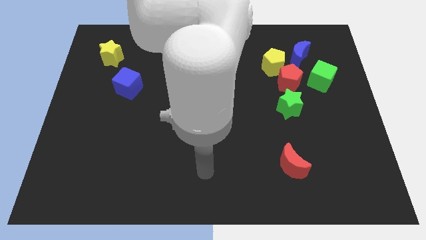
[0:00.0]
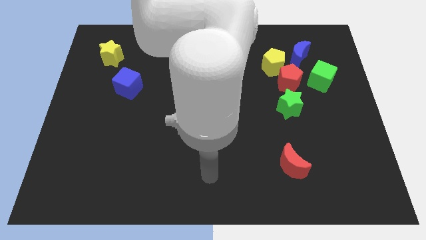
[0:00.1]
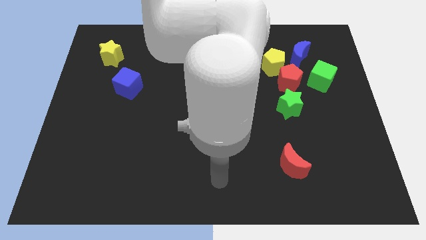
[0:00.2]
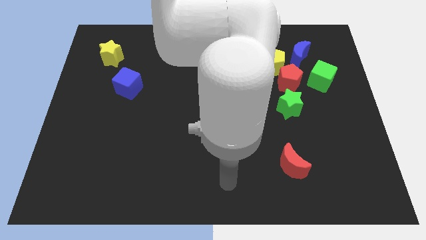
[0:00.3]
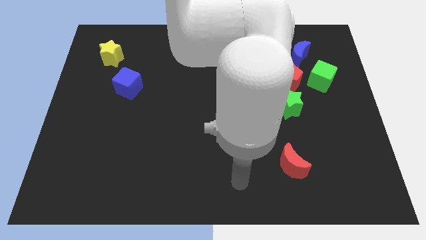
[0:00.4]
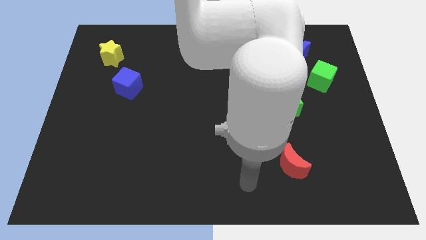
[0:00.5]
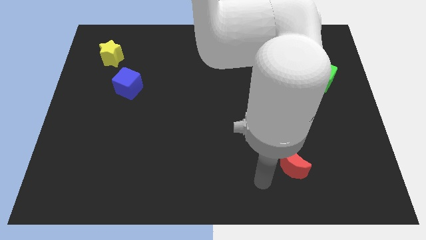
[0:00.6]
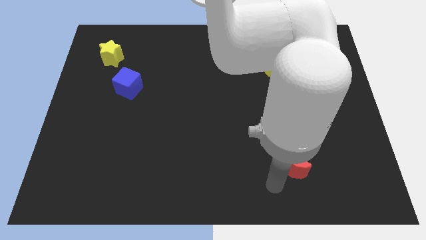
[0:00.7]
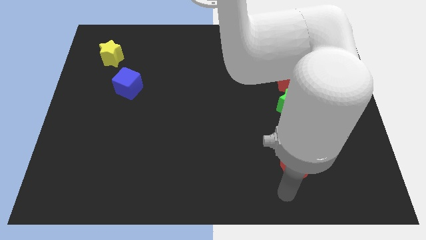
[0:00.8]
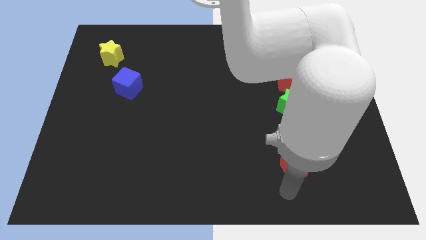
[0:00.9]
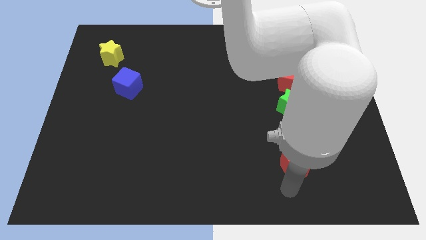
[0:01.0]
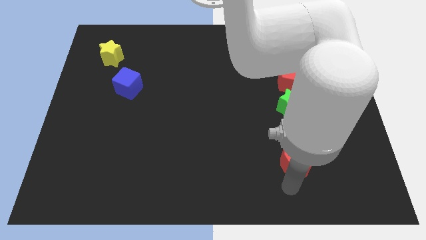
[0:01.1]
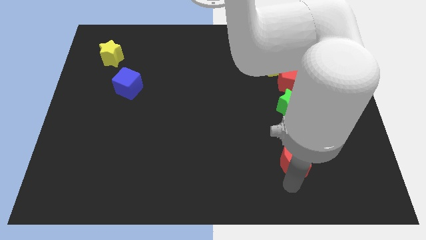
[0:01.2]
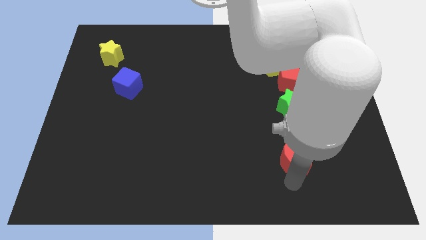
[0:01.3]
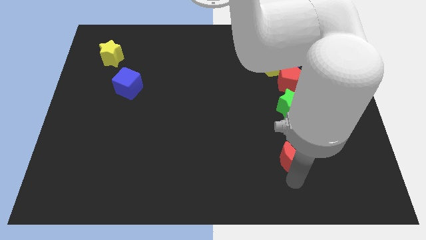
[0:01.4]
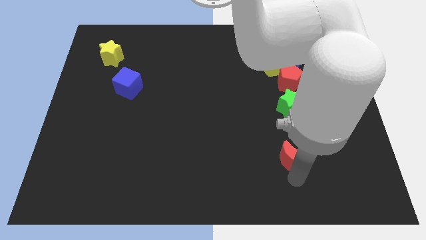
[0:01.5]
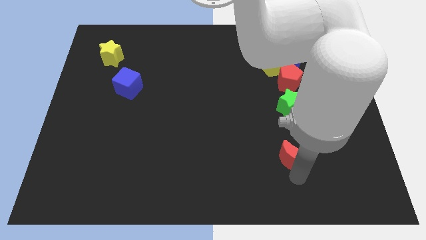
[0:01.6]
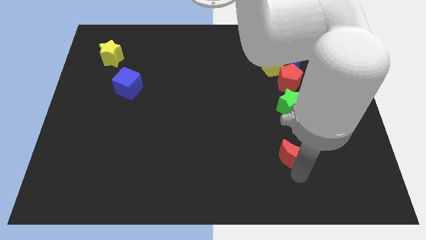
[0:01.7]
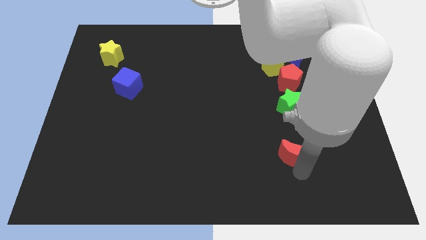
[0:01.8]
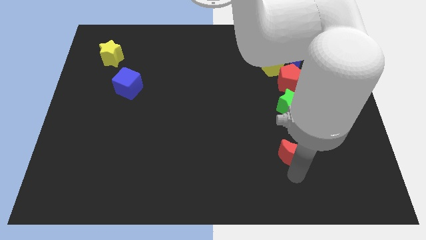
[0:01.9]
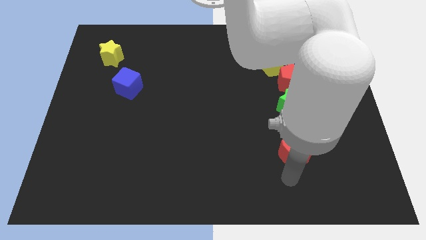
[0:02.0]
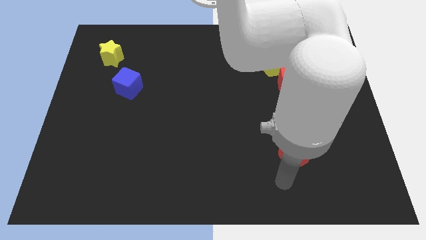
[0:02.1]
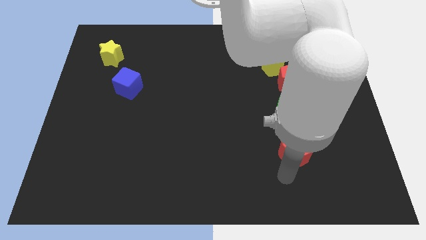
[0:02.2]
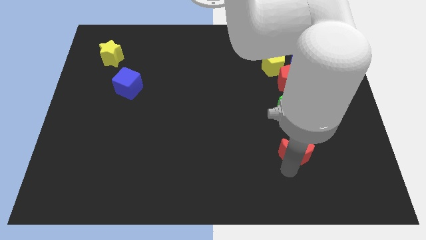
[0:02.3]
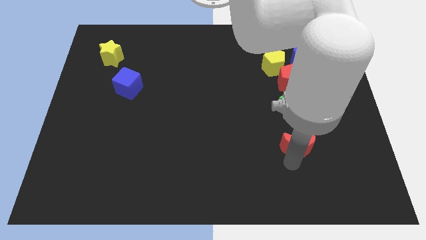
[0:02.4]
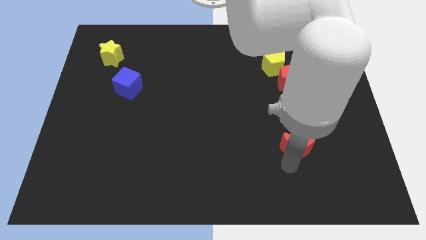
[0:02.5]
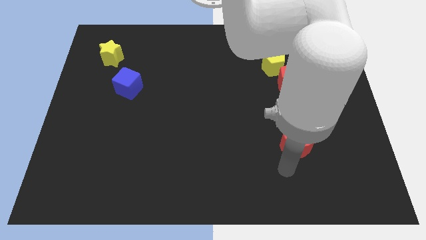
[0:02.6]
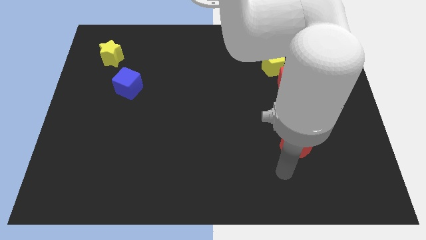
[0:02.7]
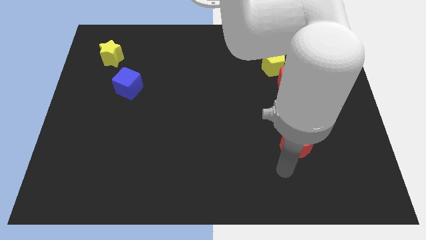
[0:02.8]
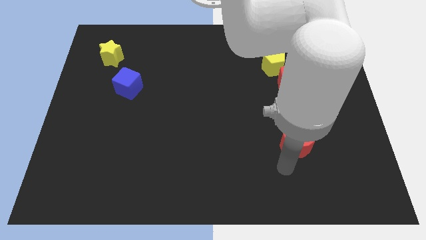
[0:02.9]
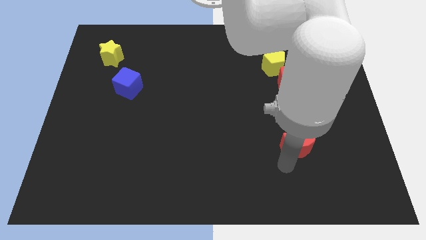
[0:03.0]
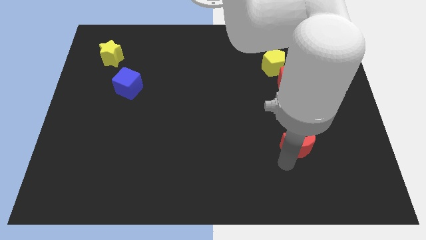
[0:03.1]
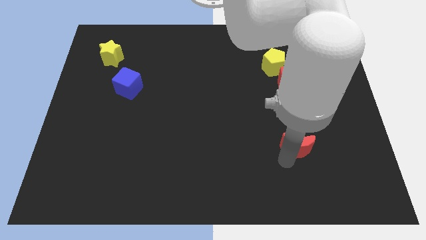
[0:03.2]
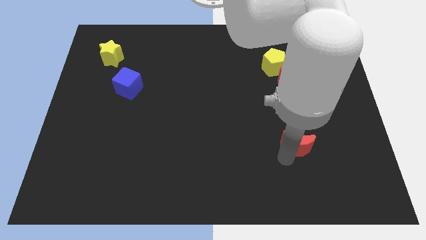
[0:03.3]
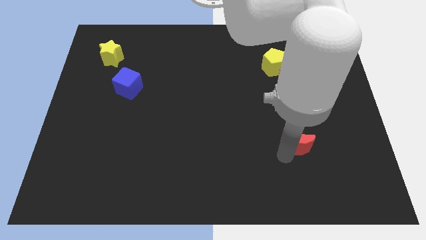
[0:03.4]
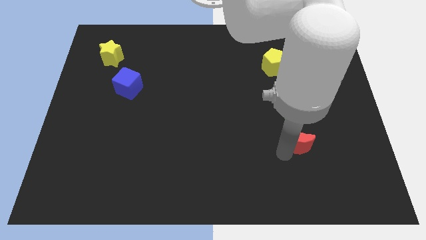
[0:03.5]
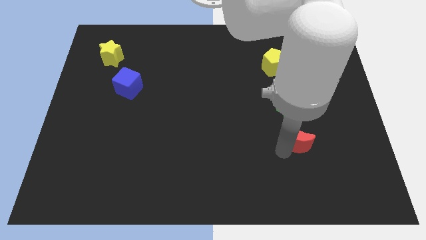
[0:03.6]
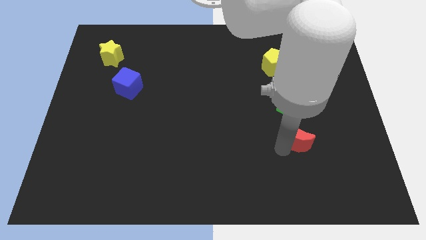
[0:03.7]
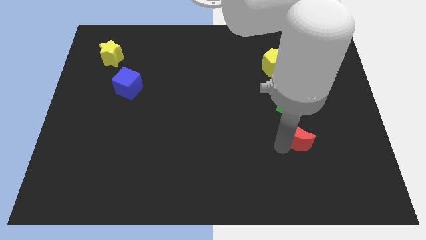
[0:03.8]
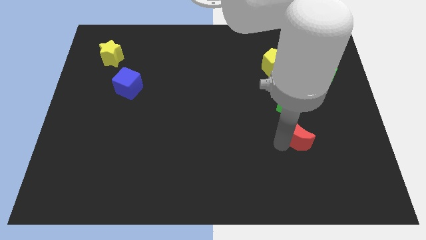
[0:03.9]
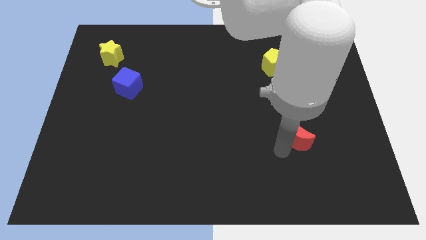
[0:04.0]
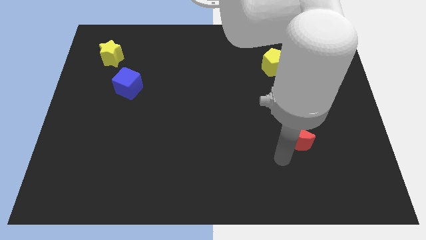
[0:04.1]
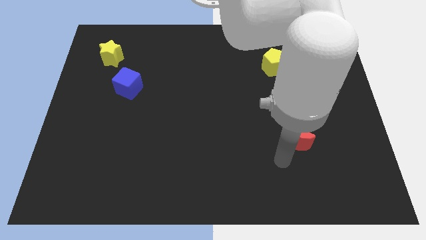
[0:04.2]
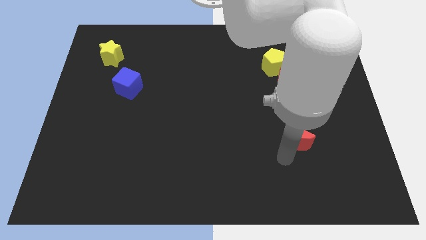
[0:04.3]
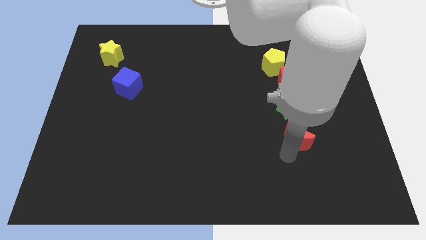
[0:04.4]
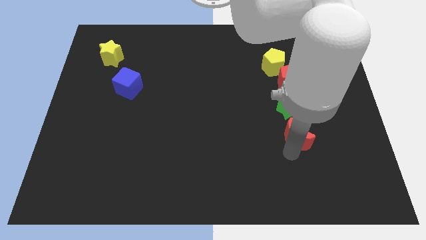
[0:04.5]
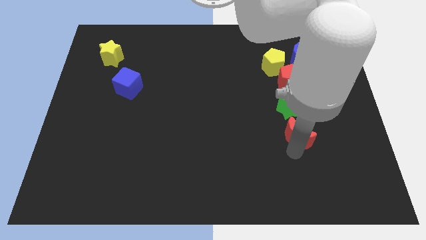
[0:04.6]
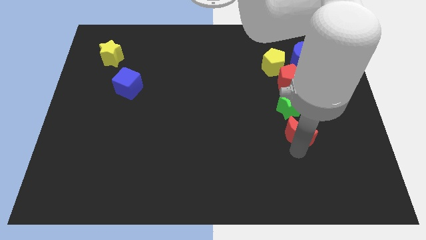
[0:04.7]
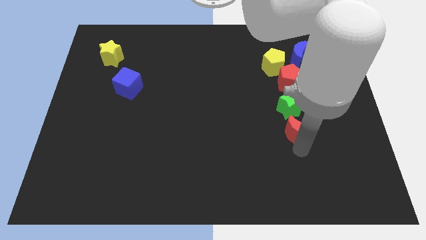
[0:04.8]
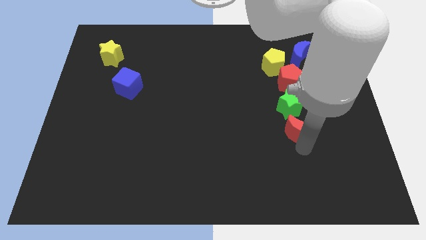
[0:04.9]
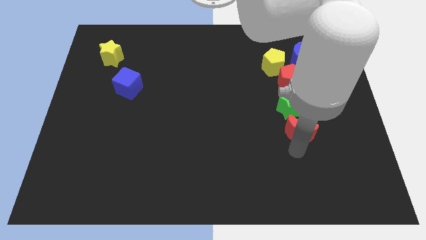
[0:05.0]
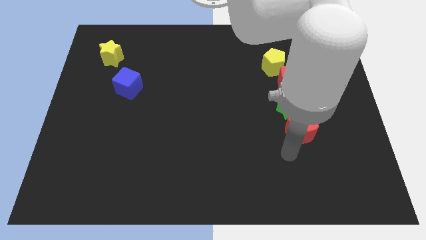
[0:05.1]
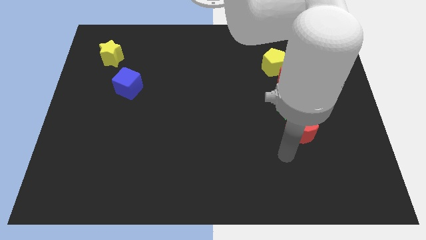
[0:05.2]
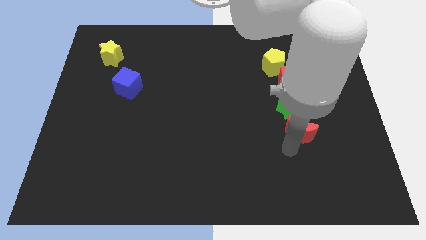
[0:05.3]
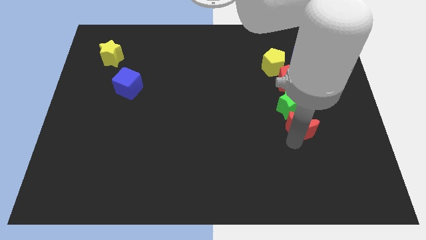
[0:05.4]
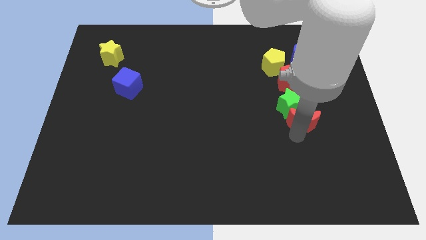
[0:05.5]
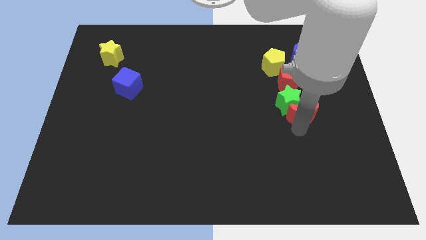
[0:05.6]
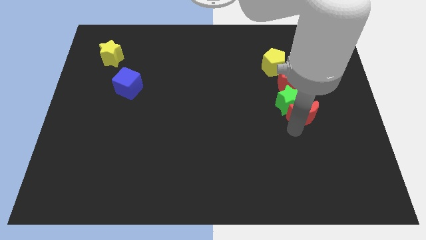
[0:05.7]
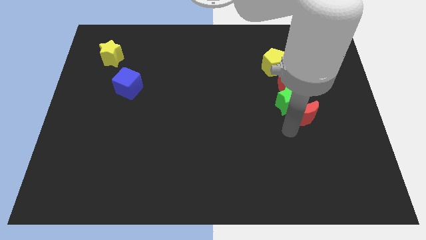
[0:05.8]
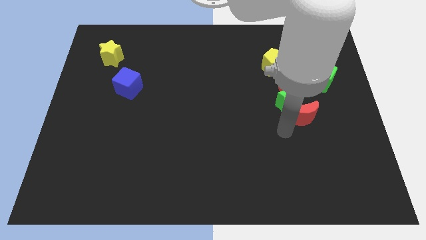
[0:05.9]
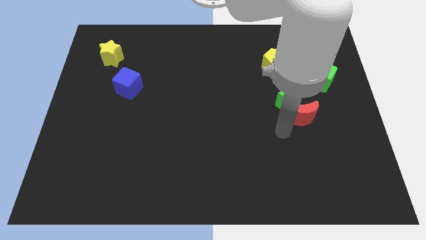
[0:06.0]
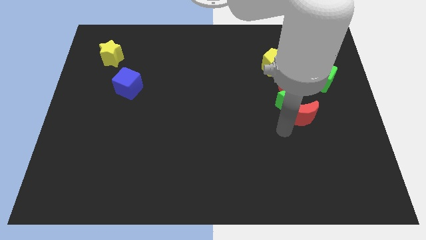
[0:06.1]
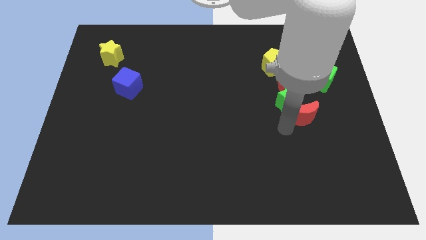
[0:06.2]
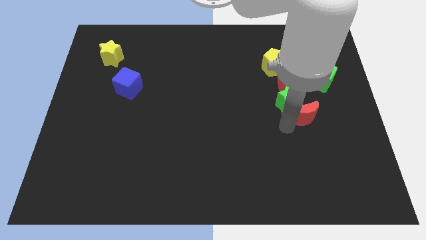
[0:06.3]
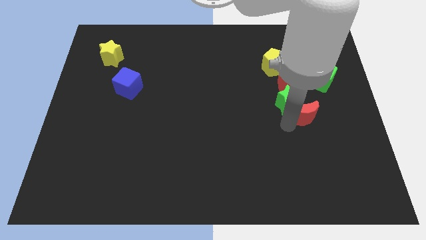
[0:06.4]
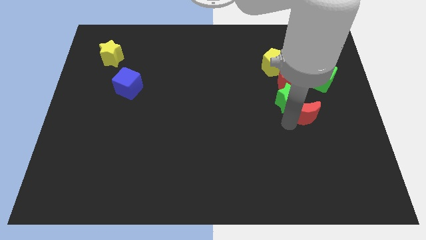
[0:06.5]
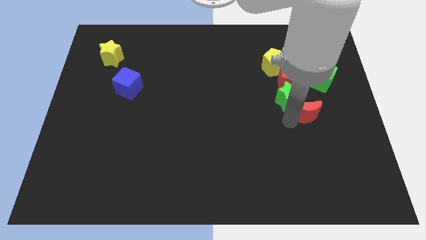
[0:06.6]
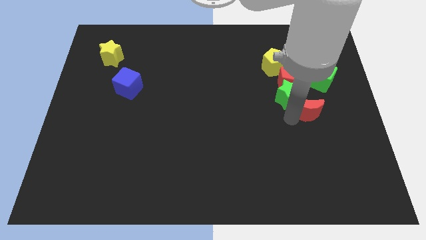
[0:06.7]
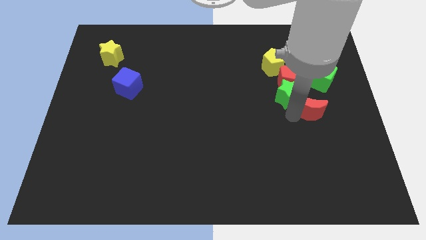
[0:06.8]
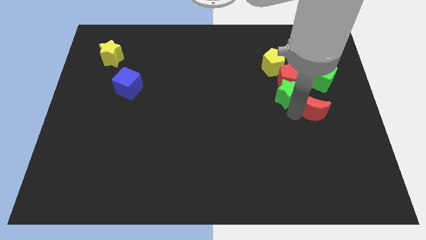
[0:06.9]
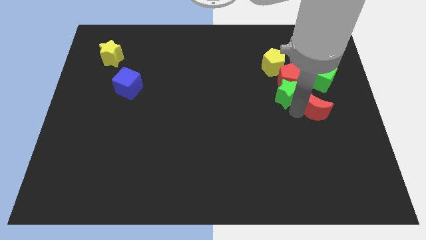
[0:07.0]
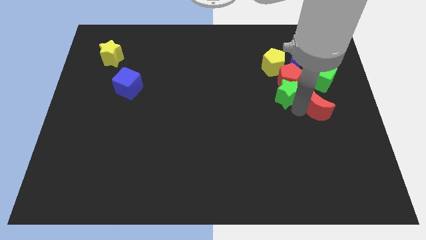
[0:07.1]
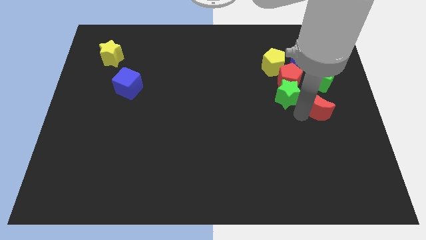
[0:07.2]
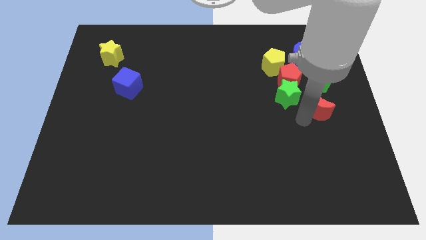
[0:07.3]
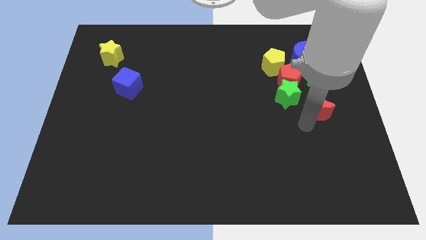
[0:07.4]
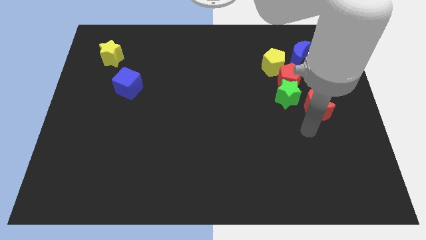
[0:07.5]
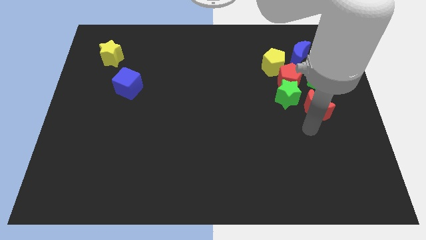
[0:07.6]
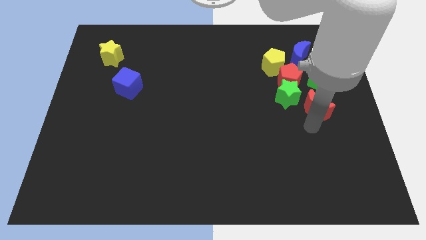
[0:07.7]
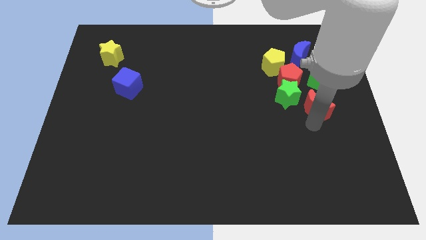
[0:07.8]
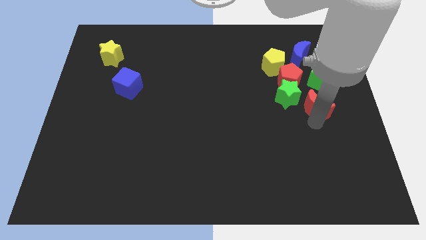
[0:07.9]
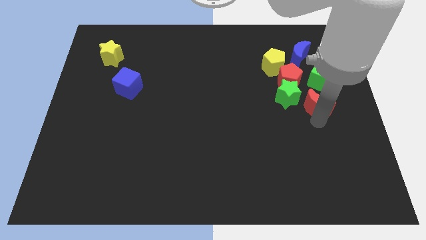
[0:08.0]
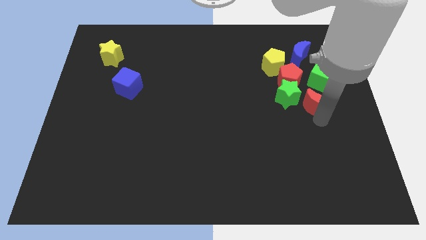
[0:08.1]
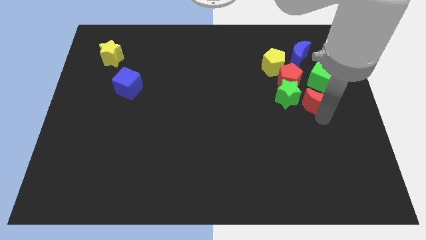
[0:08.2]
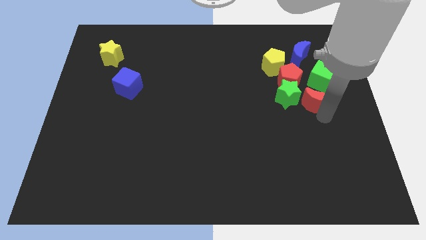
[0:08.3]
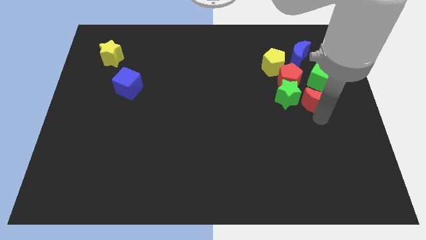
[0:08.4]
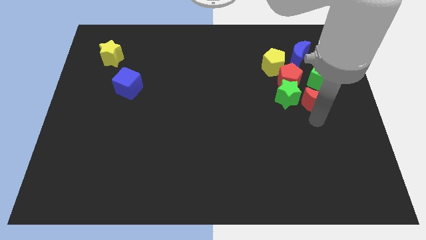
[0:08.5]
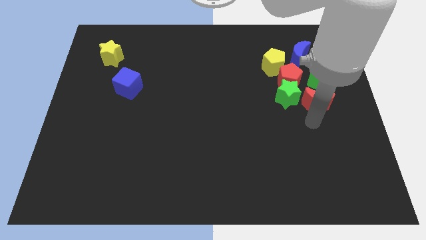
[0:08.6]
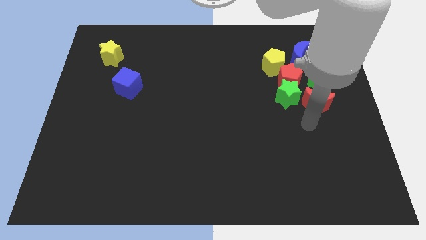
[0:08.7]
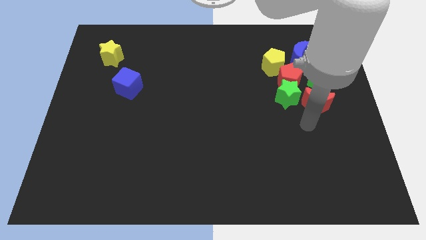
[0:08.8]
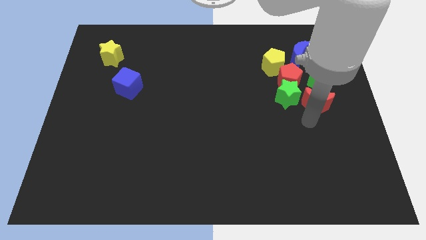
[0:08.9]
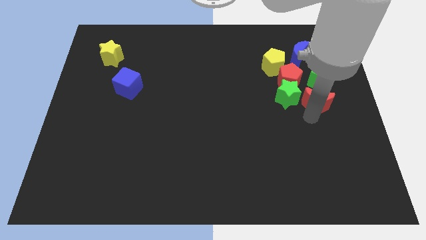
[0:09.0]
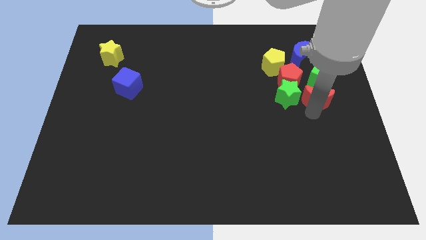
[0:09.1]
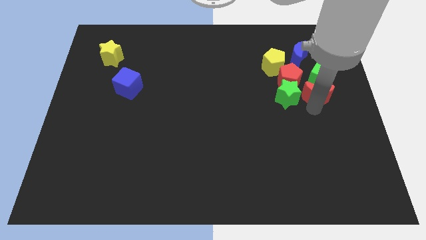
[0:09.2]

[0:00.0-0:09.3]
slide the red moon close to the green cube
